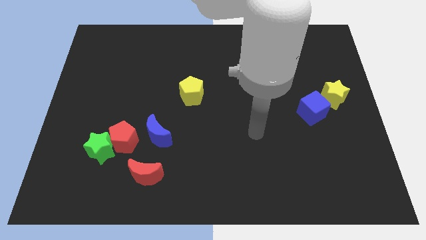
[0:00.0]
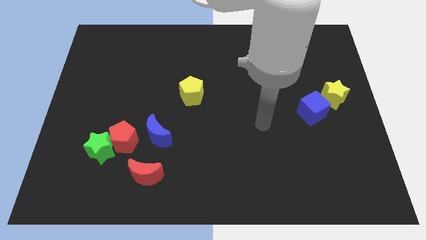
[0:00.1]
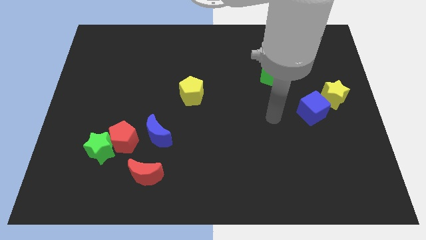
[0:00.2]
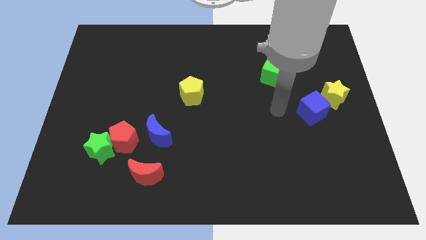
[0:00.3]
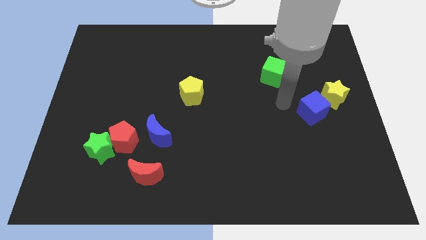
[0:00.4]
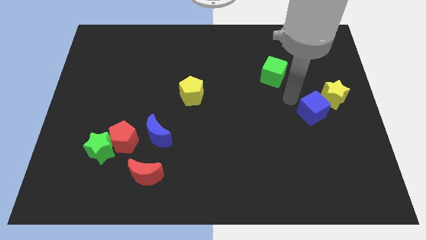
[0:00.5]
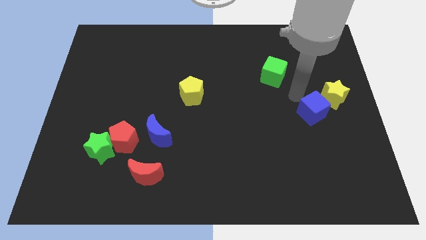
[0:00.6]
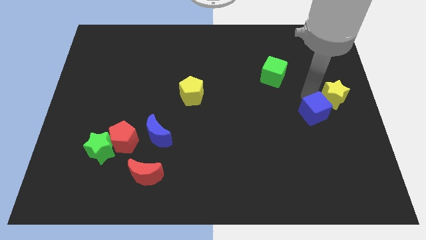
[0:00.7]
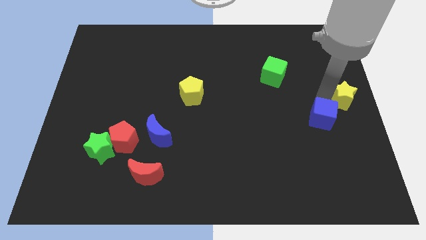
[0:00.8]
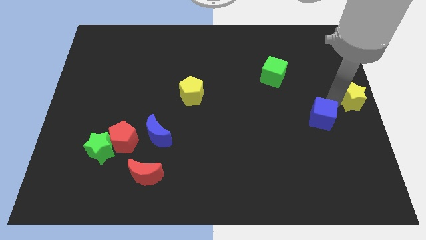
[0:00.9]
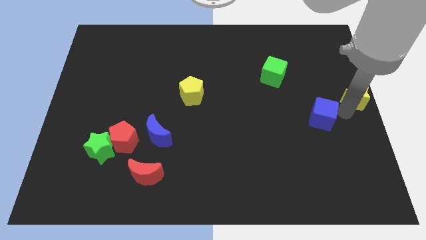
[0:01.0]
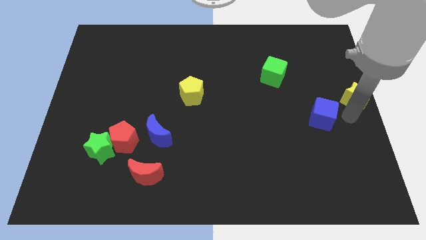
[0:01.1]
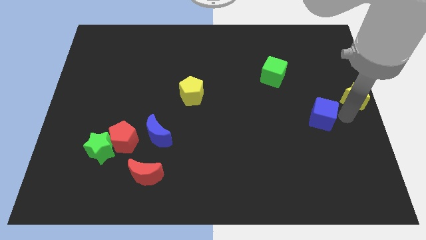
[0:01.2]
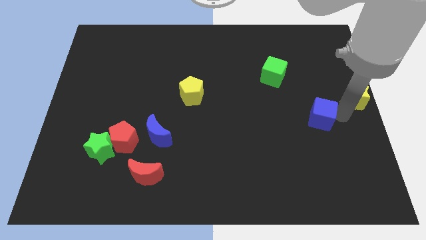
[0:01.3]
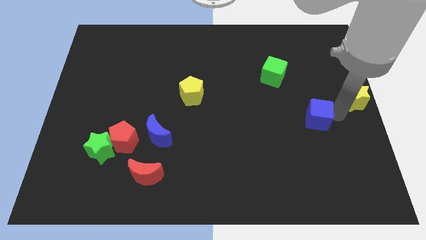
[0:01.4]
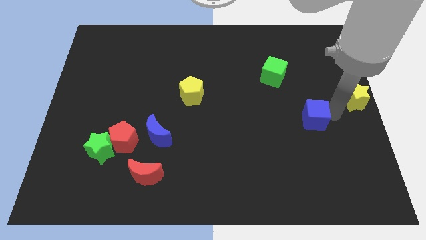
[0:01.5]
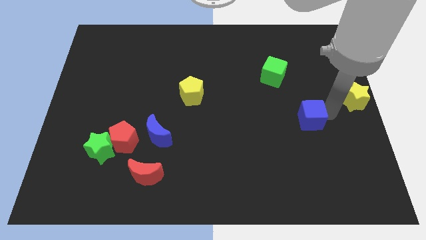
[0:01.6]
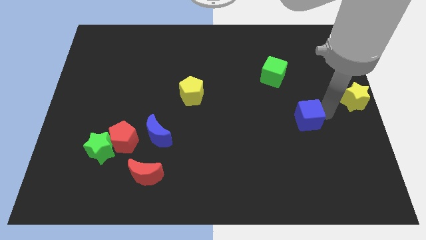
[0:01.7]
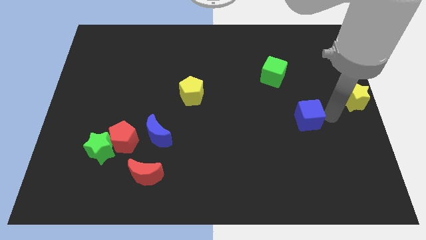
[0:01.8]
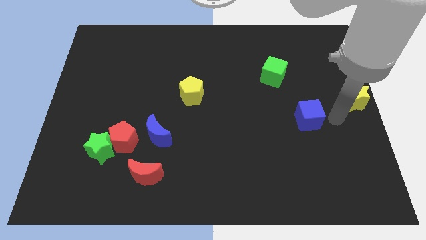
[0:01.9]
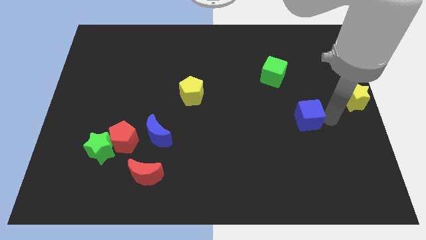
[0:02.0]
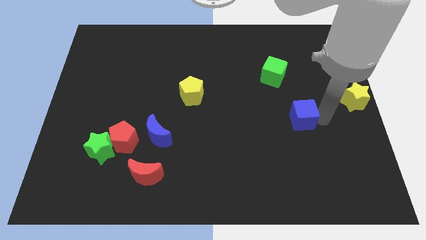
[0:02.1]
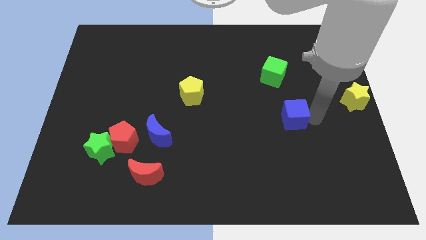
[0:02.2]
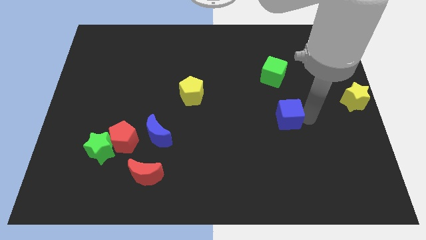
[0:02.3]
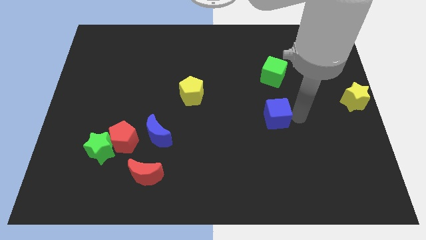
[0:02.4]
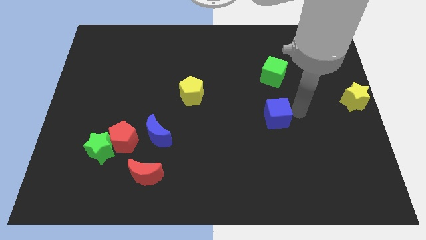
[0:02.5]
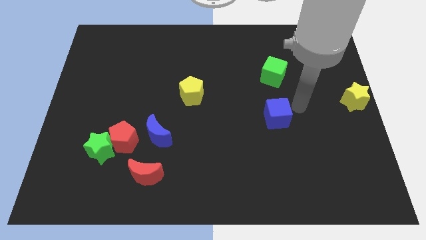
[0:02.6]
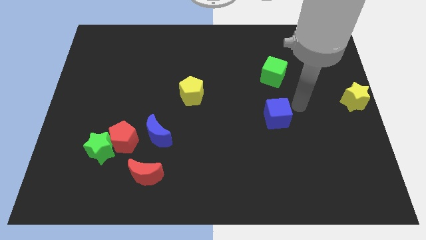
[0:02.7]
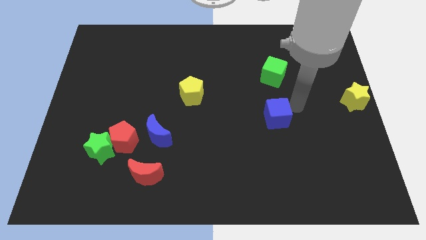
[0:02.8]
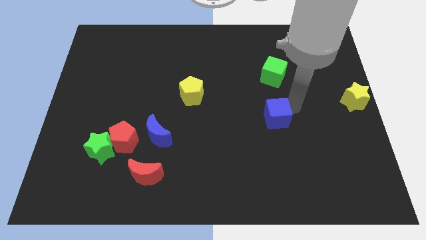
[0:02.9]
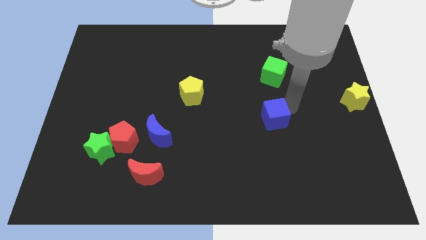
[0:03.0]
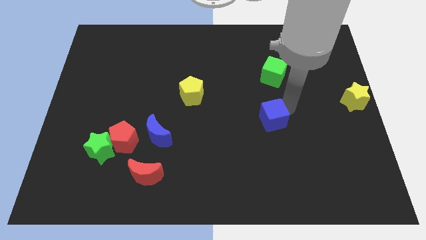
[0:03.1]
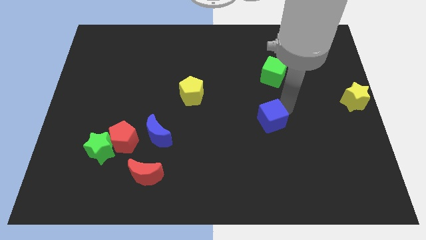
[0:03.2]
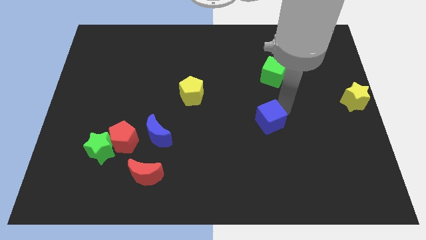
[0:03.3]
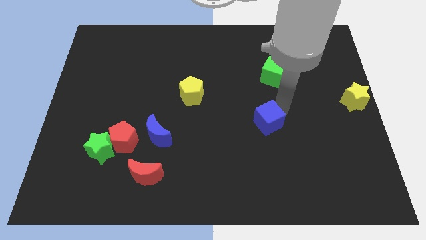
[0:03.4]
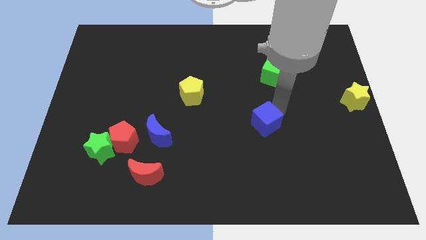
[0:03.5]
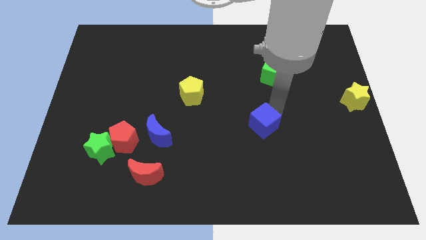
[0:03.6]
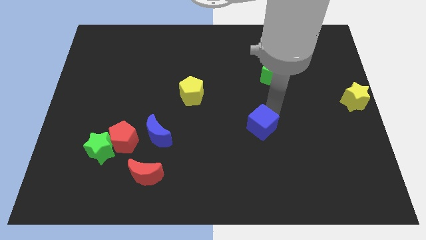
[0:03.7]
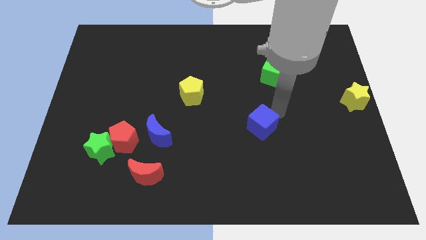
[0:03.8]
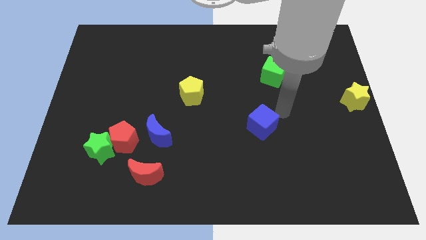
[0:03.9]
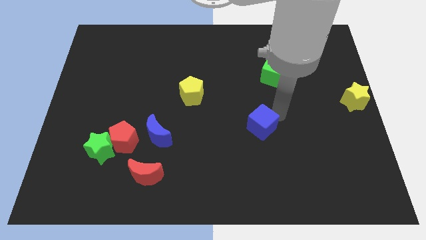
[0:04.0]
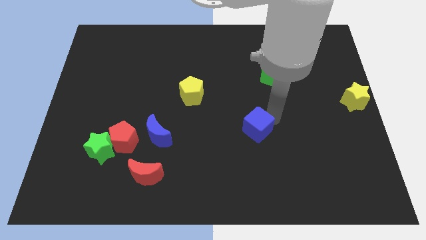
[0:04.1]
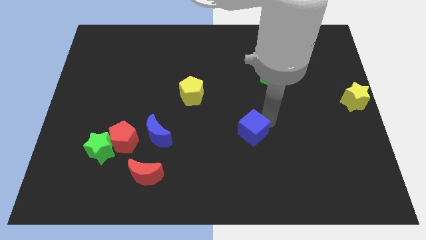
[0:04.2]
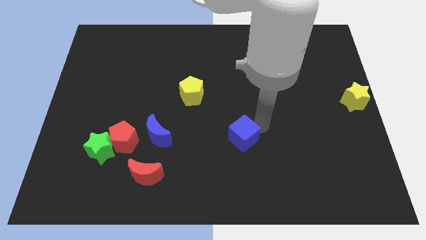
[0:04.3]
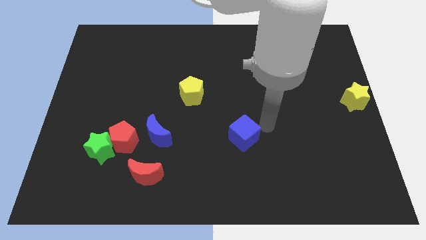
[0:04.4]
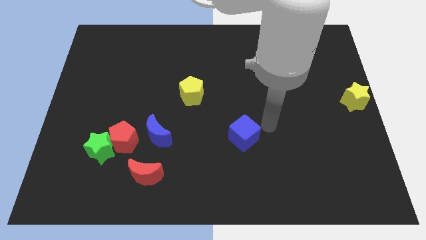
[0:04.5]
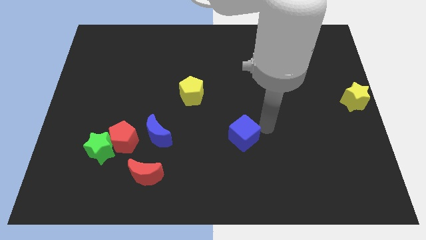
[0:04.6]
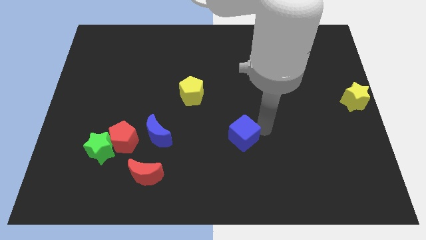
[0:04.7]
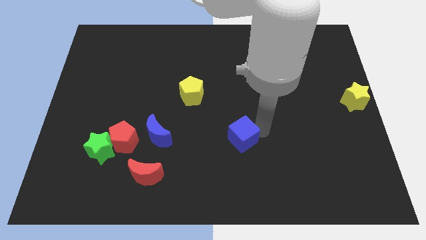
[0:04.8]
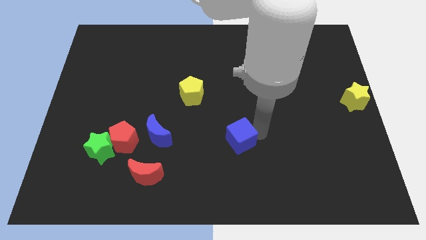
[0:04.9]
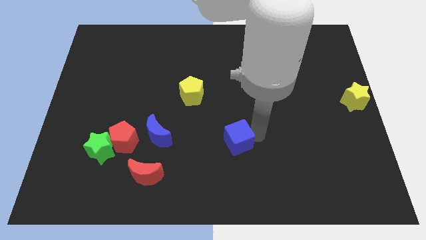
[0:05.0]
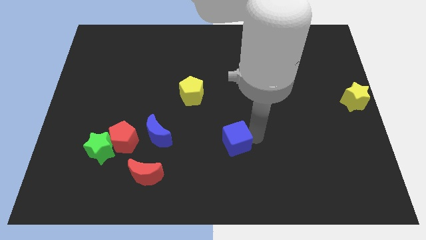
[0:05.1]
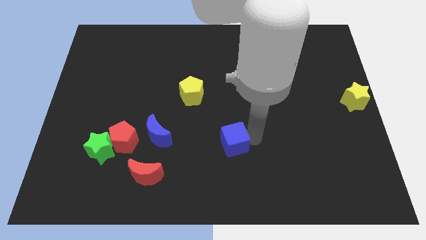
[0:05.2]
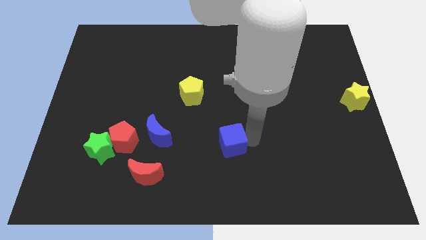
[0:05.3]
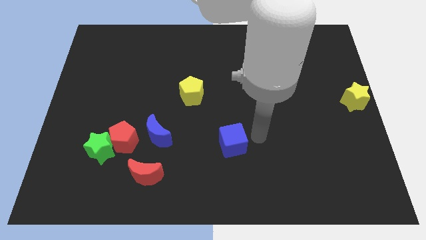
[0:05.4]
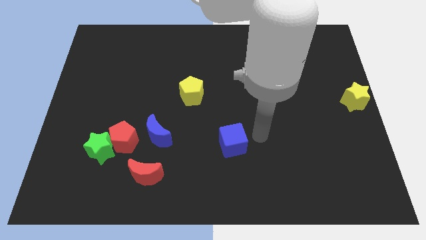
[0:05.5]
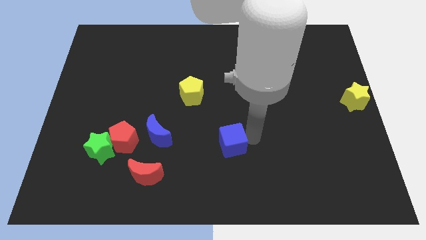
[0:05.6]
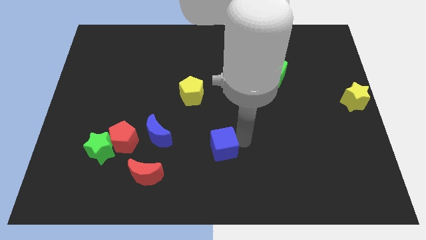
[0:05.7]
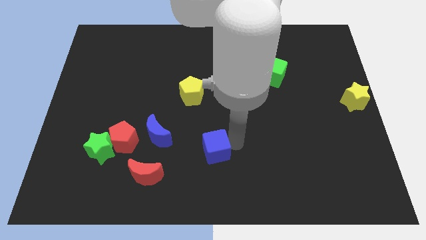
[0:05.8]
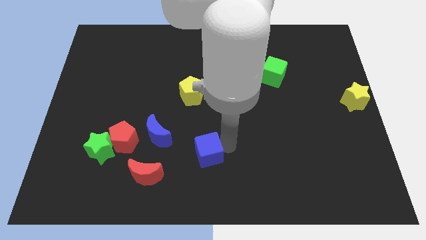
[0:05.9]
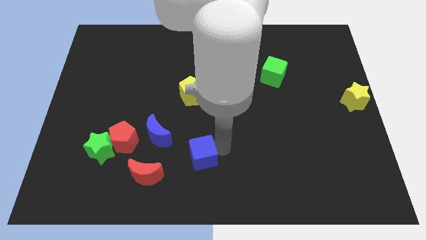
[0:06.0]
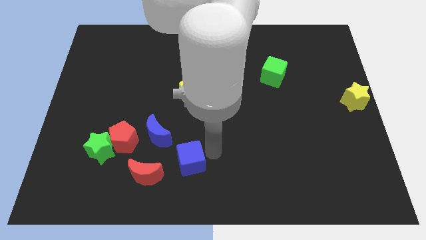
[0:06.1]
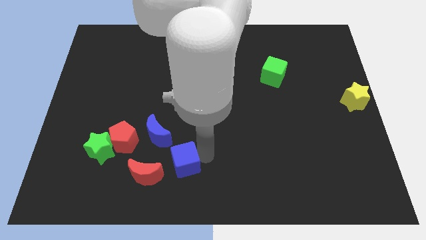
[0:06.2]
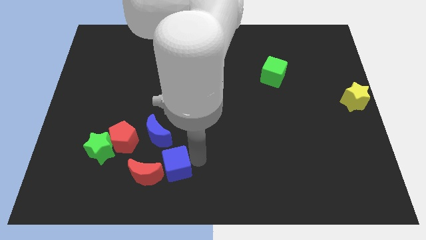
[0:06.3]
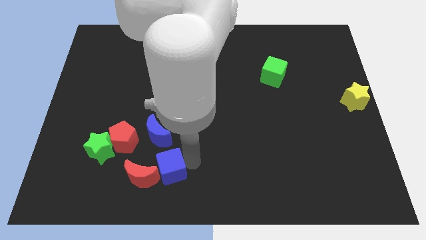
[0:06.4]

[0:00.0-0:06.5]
push the blue cube next to the red moon

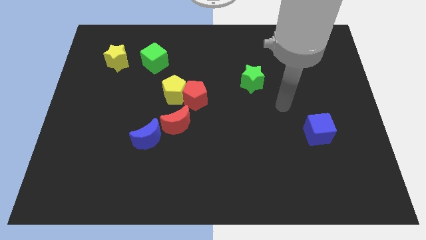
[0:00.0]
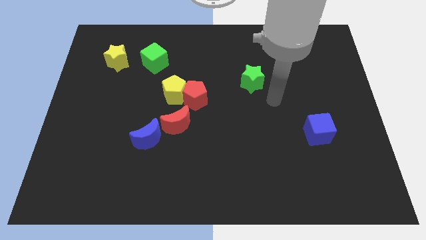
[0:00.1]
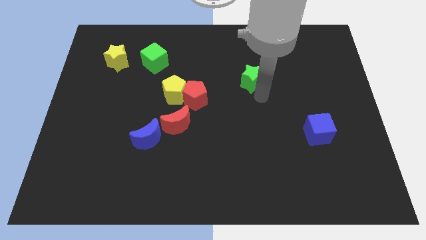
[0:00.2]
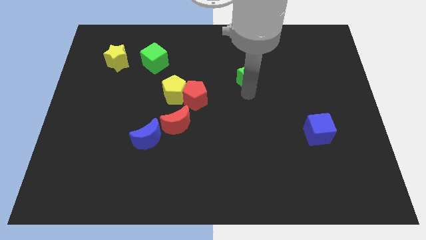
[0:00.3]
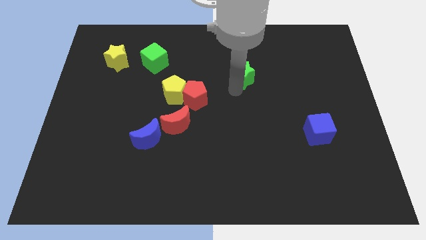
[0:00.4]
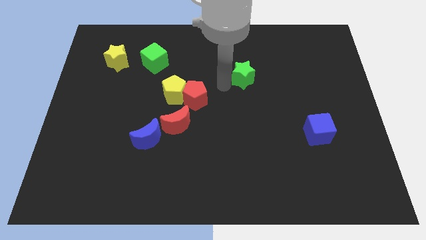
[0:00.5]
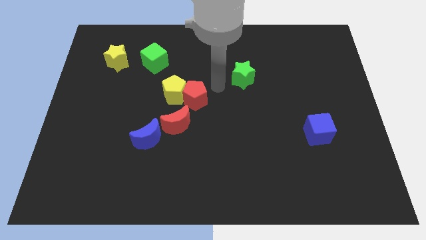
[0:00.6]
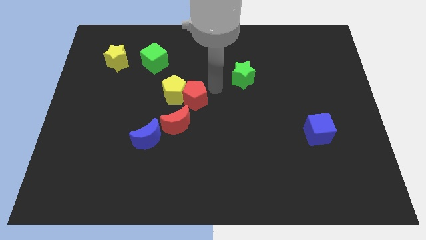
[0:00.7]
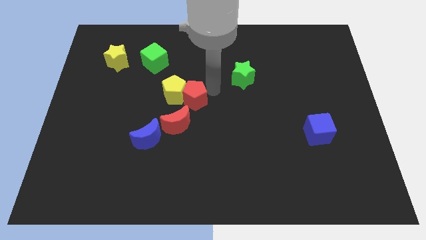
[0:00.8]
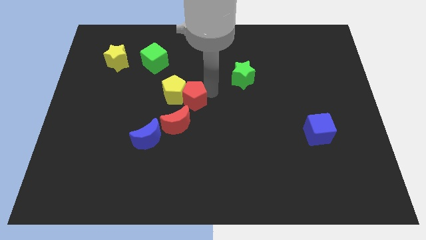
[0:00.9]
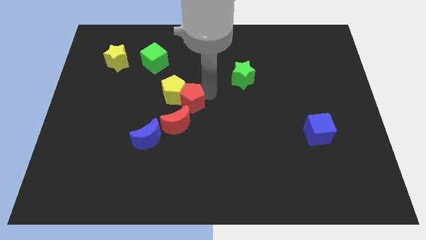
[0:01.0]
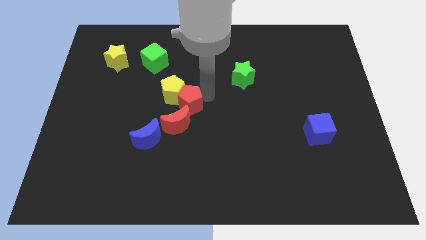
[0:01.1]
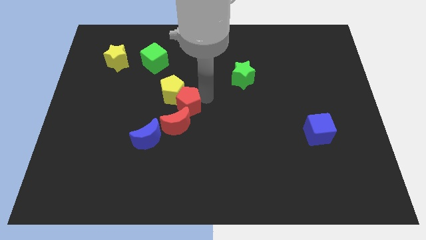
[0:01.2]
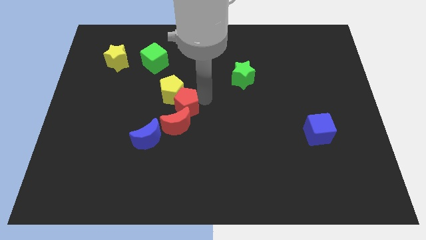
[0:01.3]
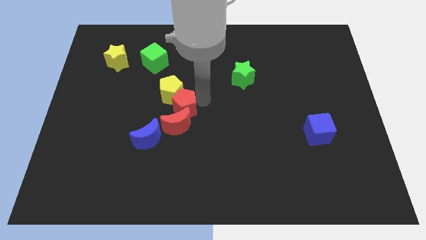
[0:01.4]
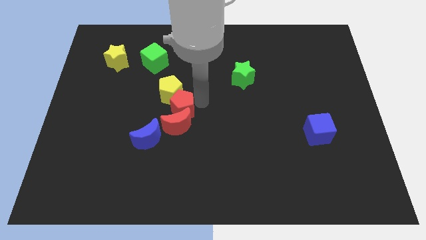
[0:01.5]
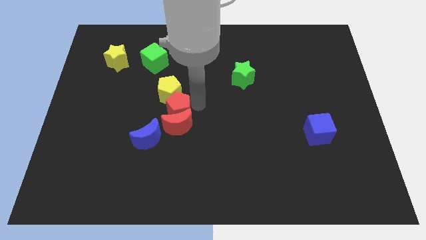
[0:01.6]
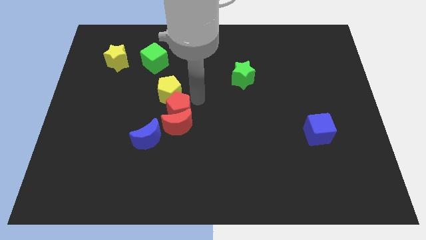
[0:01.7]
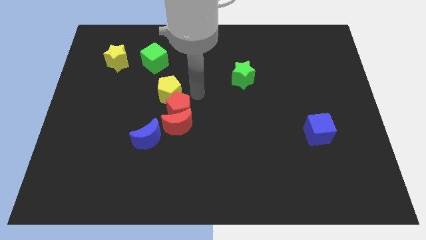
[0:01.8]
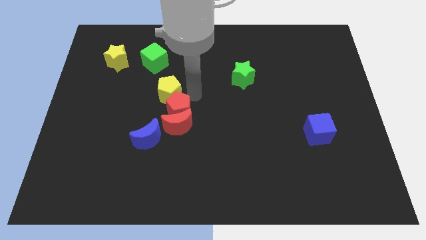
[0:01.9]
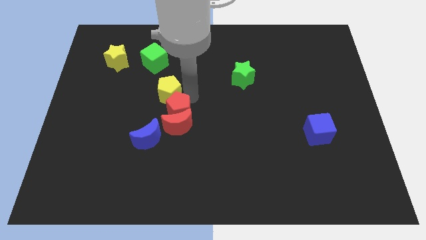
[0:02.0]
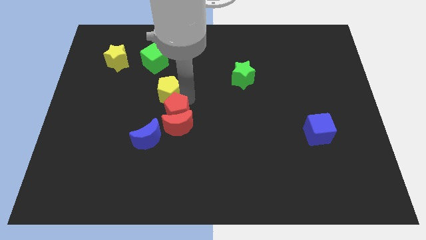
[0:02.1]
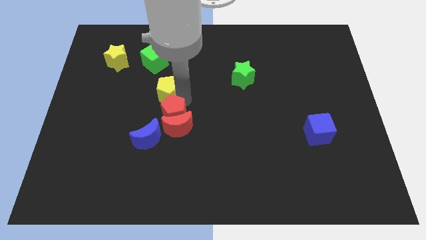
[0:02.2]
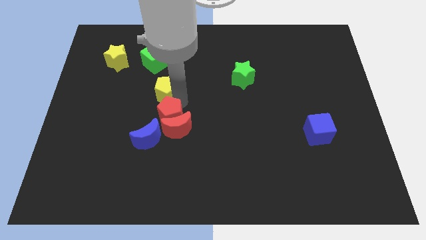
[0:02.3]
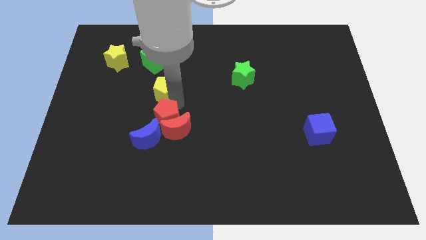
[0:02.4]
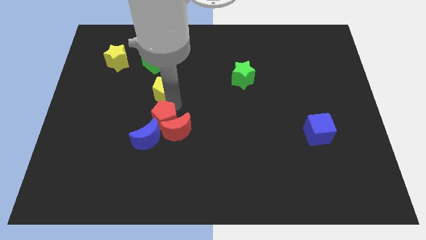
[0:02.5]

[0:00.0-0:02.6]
slide the red pentagon next to the blue moon
